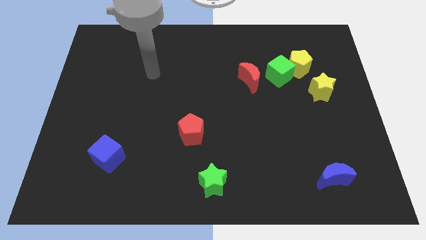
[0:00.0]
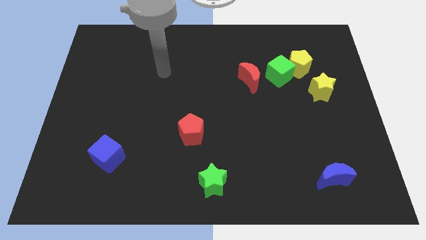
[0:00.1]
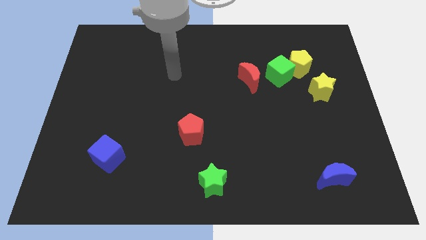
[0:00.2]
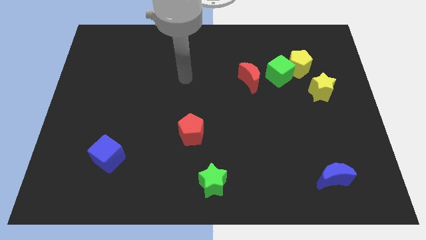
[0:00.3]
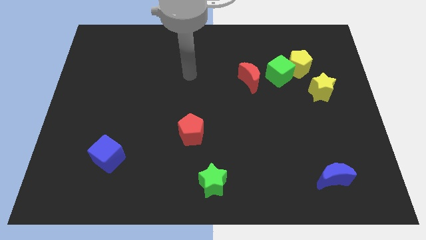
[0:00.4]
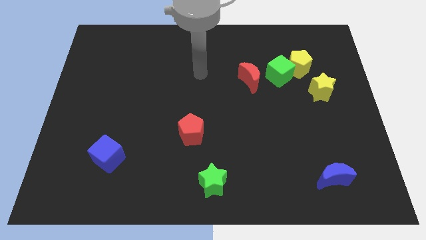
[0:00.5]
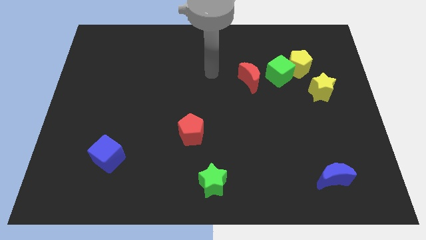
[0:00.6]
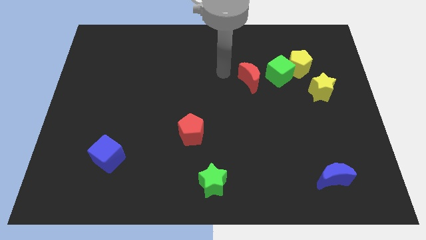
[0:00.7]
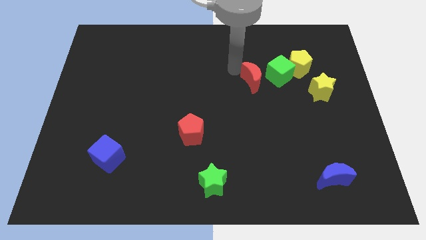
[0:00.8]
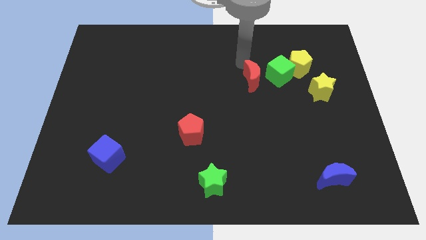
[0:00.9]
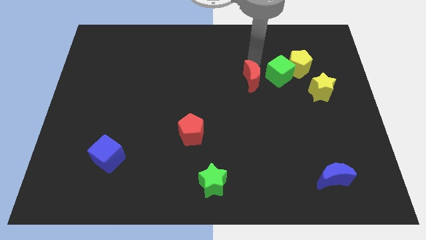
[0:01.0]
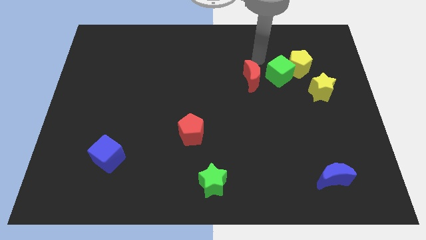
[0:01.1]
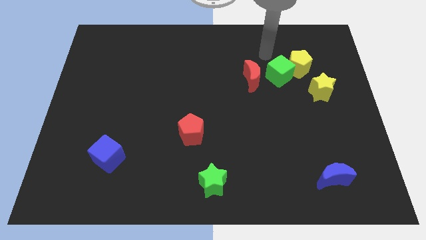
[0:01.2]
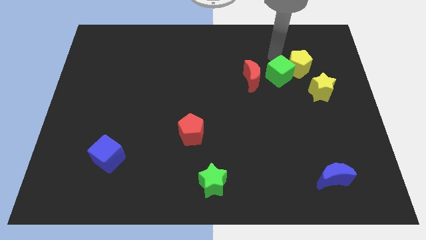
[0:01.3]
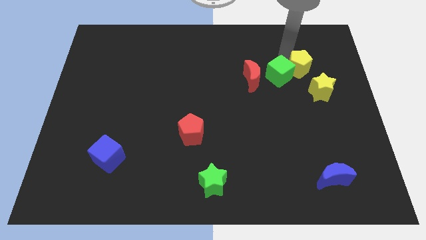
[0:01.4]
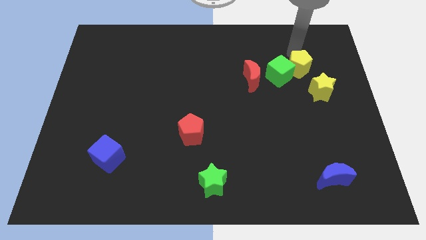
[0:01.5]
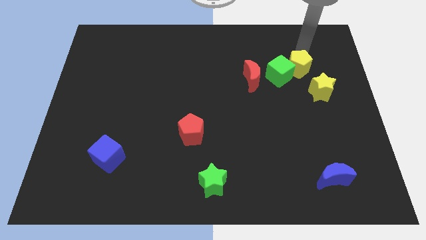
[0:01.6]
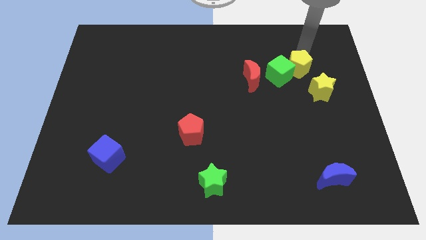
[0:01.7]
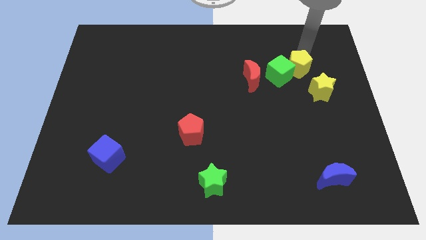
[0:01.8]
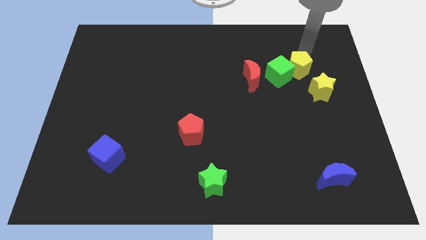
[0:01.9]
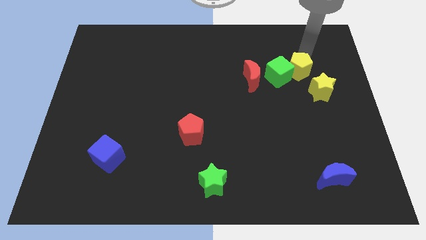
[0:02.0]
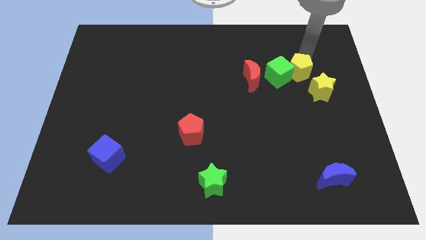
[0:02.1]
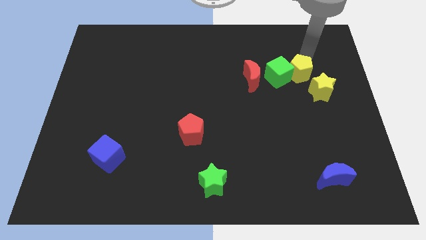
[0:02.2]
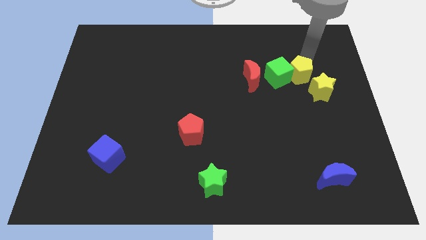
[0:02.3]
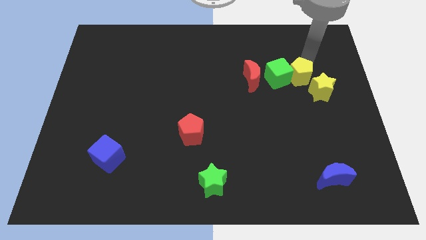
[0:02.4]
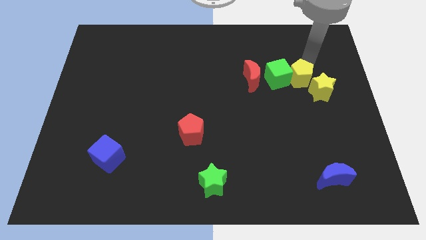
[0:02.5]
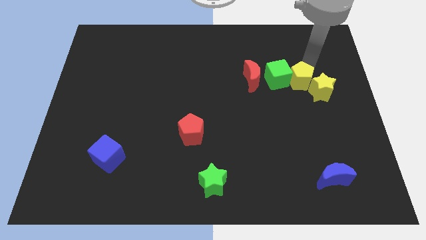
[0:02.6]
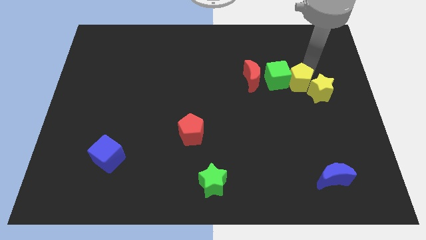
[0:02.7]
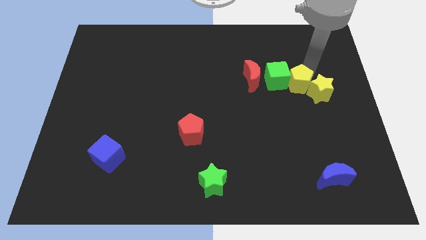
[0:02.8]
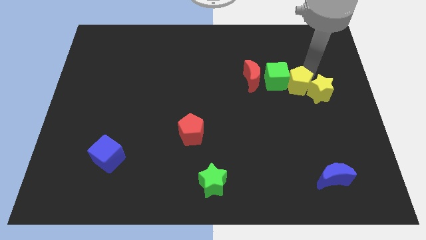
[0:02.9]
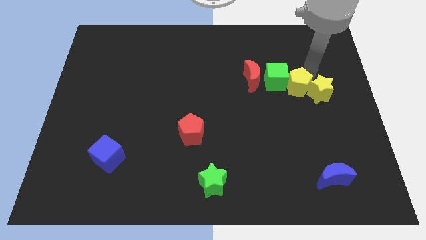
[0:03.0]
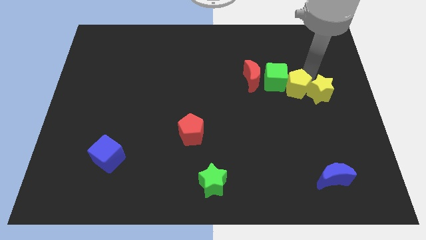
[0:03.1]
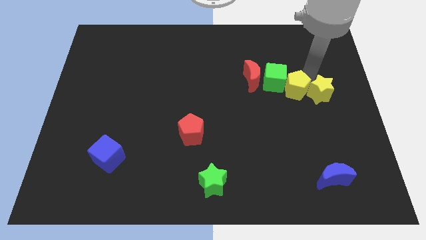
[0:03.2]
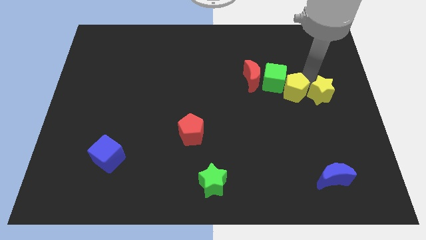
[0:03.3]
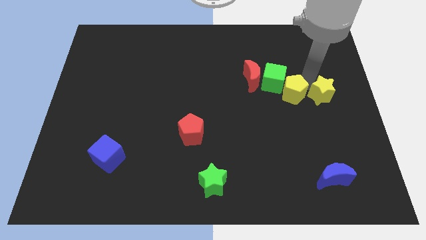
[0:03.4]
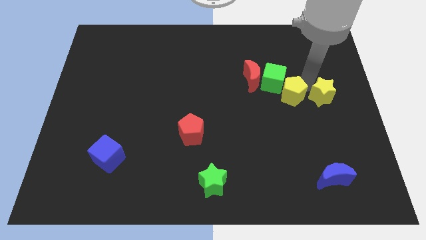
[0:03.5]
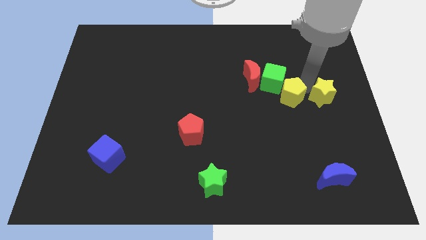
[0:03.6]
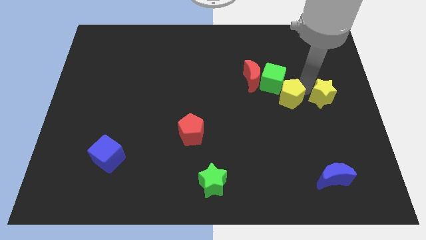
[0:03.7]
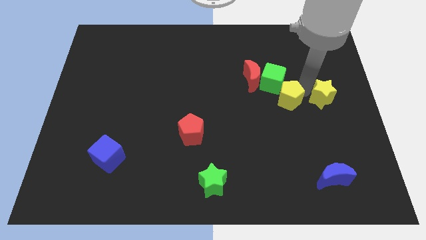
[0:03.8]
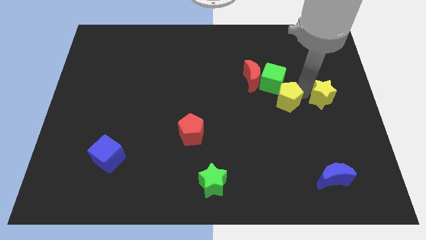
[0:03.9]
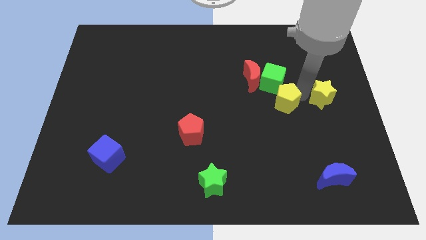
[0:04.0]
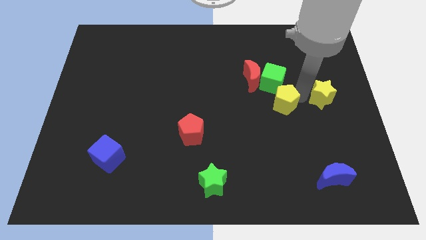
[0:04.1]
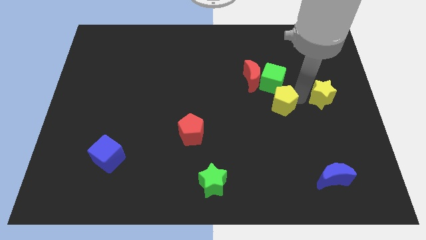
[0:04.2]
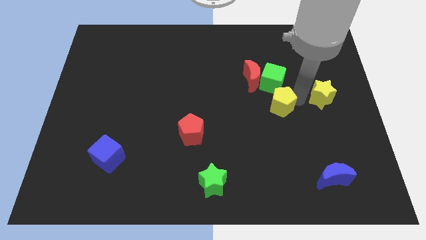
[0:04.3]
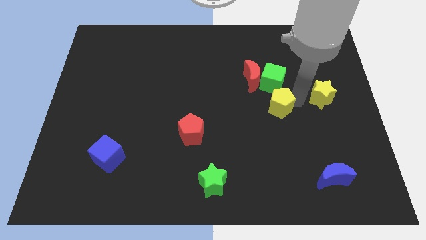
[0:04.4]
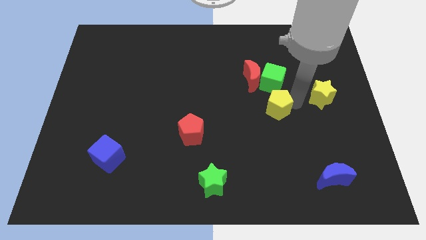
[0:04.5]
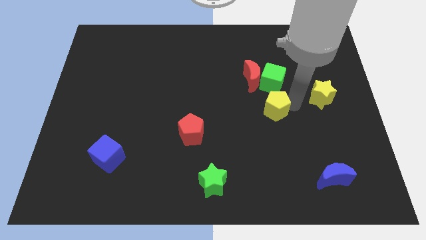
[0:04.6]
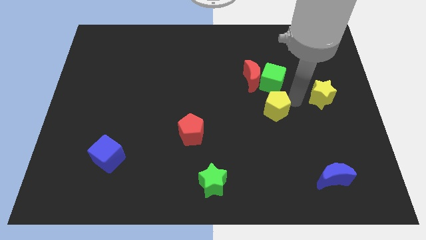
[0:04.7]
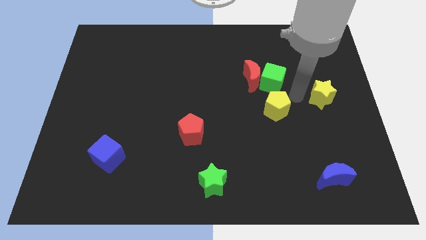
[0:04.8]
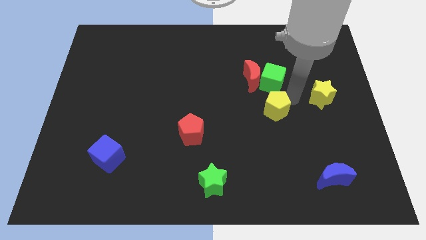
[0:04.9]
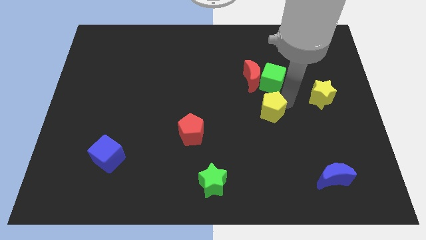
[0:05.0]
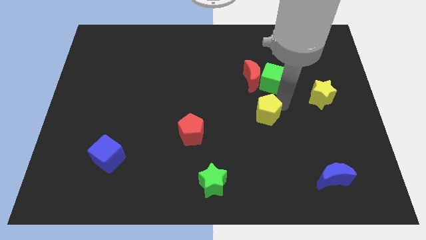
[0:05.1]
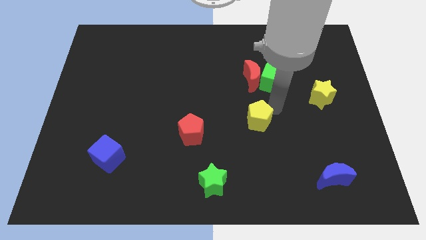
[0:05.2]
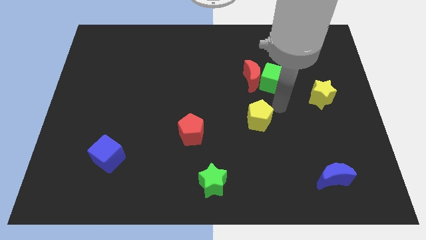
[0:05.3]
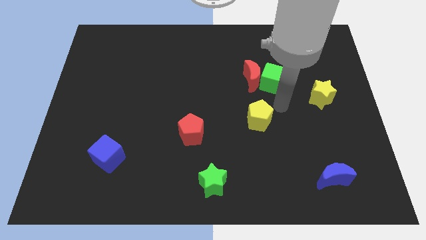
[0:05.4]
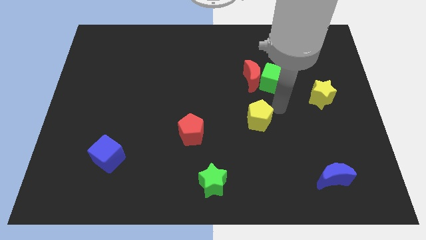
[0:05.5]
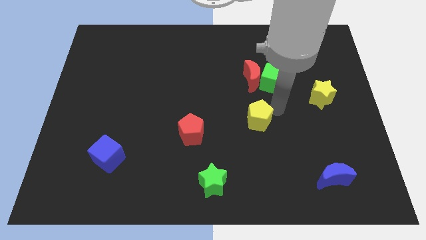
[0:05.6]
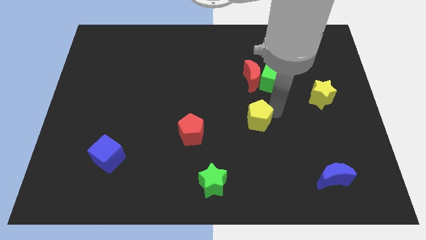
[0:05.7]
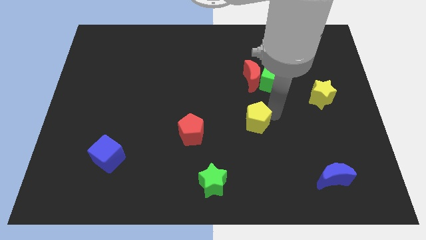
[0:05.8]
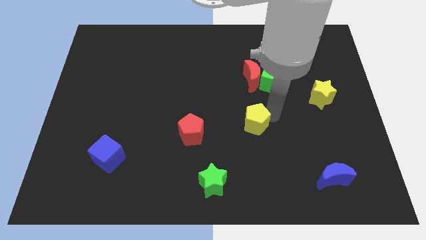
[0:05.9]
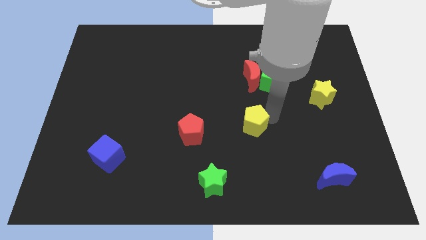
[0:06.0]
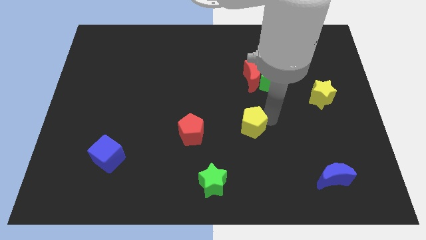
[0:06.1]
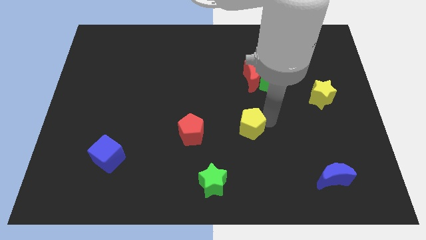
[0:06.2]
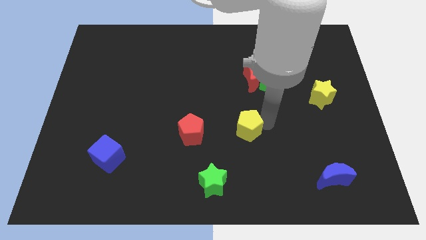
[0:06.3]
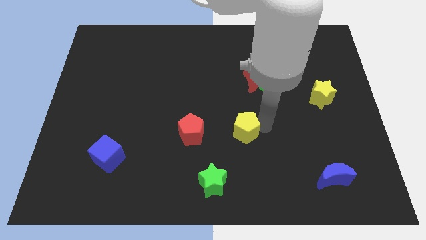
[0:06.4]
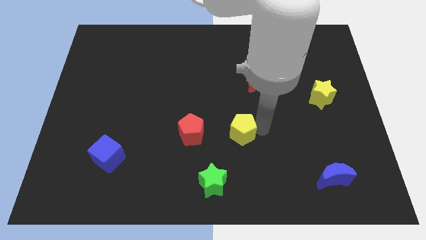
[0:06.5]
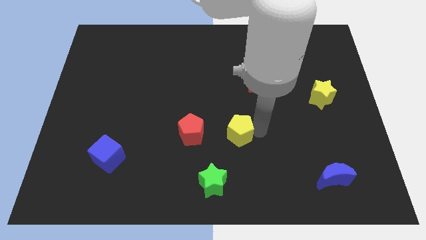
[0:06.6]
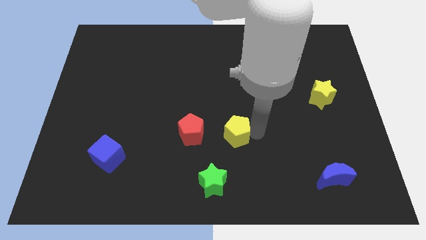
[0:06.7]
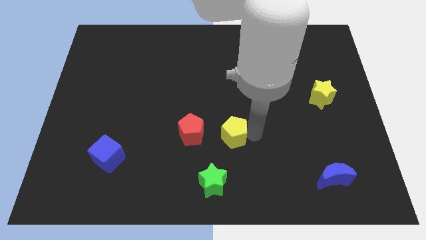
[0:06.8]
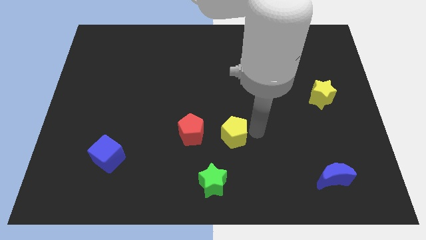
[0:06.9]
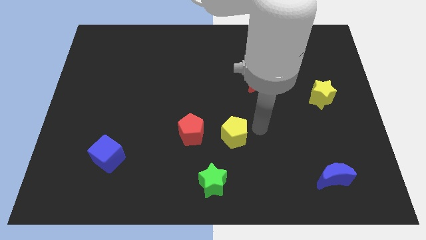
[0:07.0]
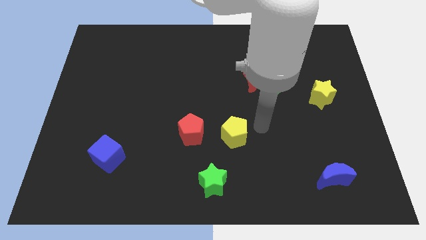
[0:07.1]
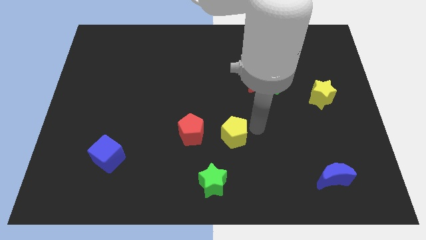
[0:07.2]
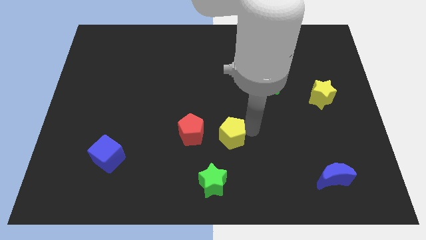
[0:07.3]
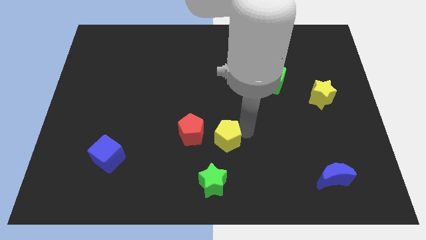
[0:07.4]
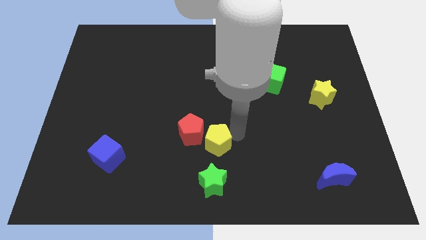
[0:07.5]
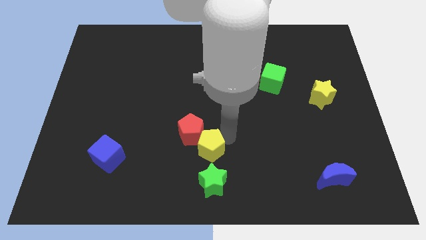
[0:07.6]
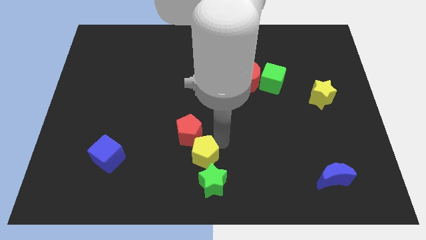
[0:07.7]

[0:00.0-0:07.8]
move the yellow pentagon to the top left of the green star
